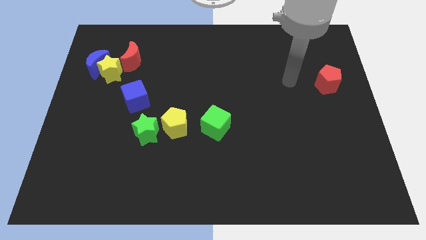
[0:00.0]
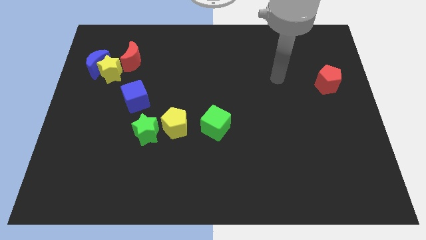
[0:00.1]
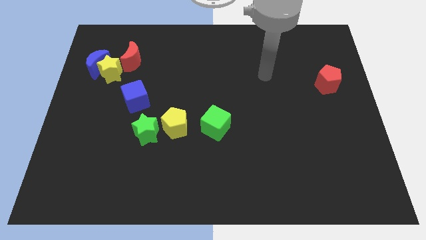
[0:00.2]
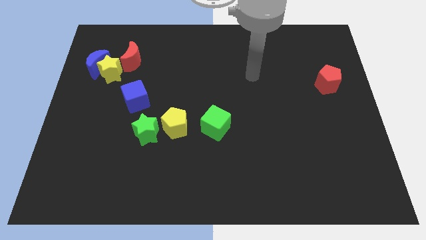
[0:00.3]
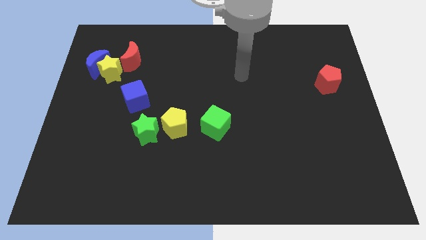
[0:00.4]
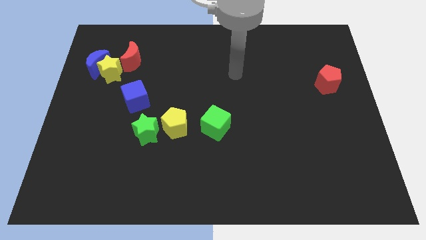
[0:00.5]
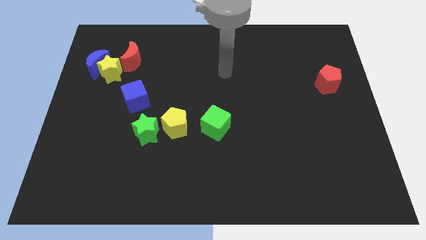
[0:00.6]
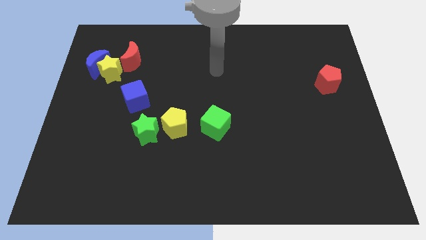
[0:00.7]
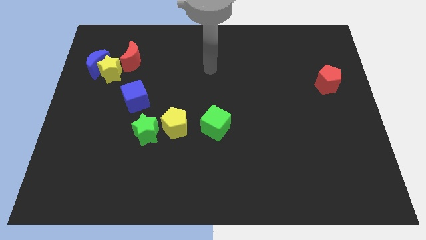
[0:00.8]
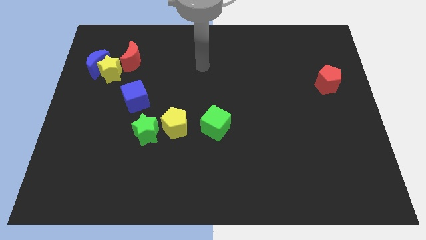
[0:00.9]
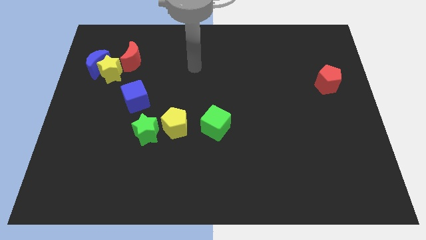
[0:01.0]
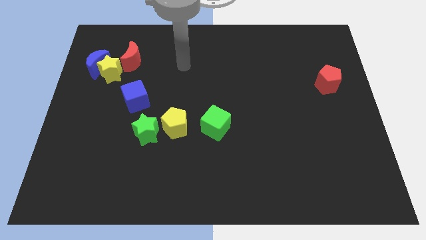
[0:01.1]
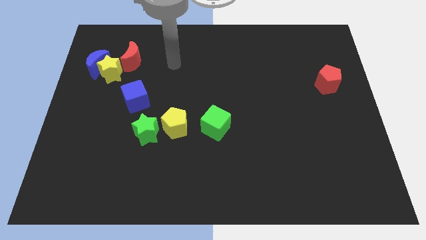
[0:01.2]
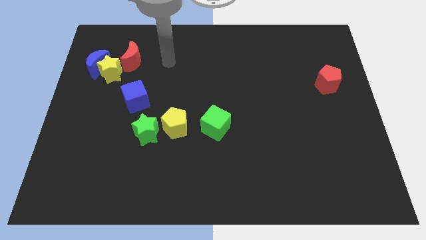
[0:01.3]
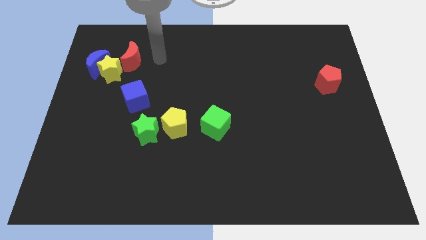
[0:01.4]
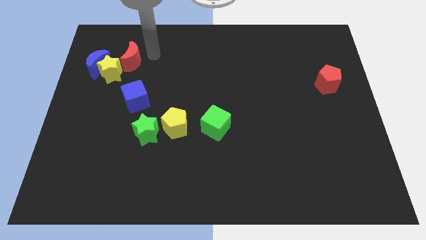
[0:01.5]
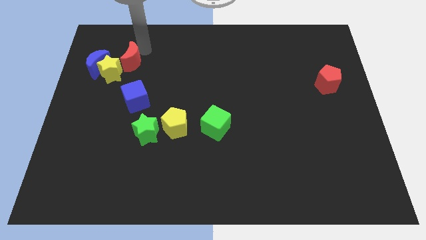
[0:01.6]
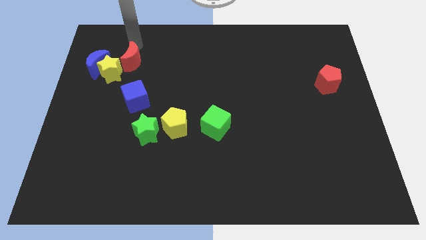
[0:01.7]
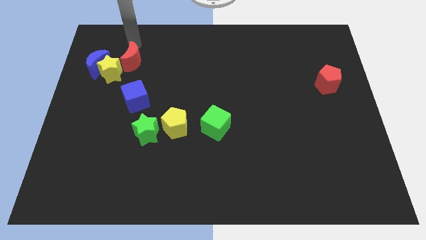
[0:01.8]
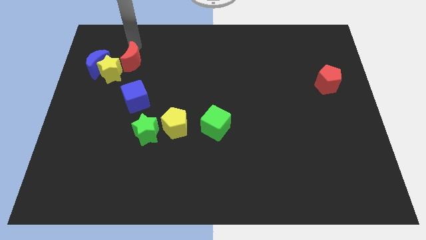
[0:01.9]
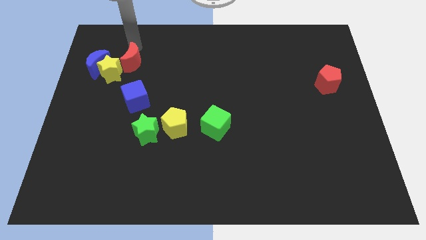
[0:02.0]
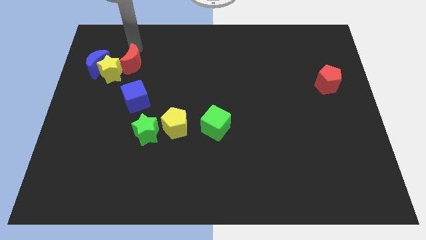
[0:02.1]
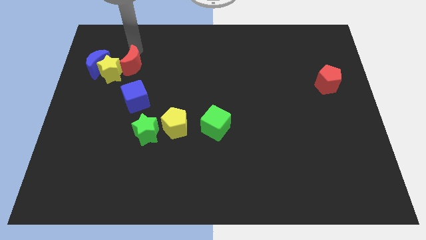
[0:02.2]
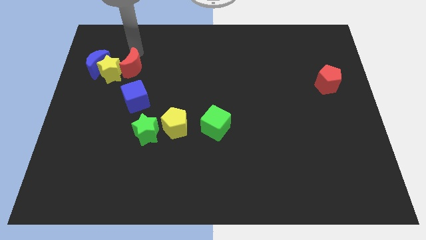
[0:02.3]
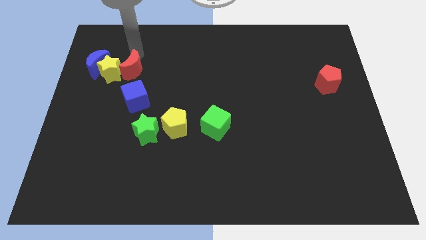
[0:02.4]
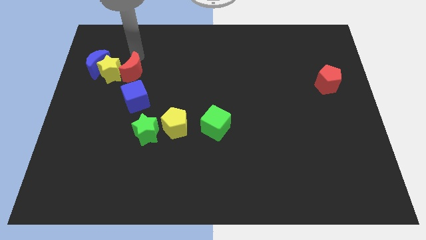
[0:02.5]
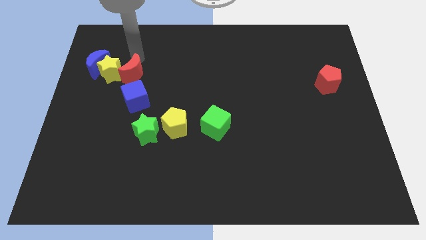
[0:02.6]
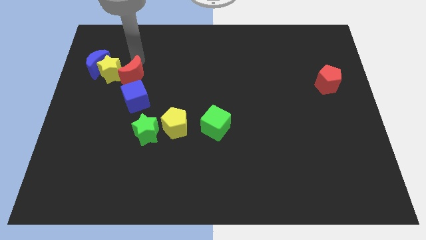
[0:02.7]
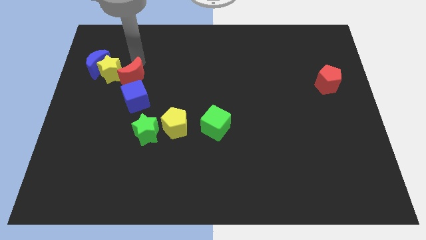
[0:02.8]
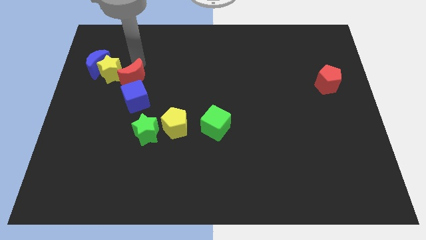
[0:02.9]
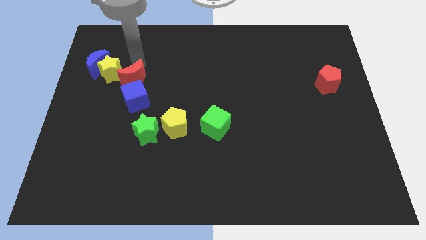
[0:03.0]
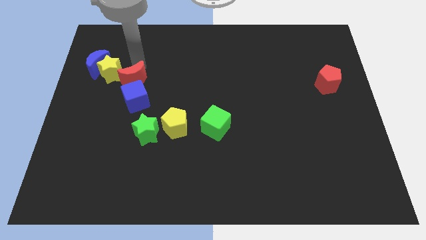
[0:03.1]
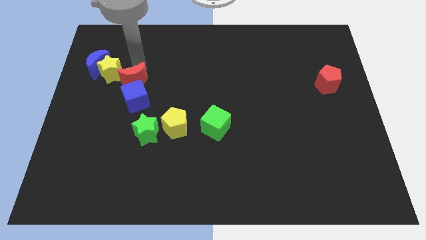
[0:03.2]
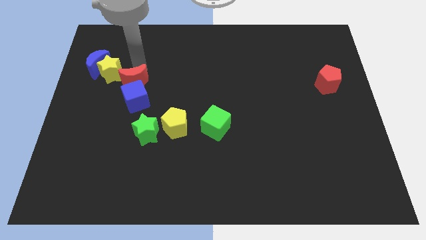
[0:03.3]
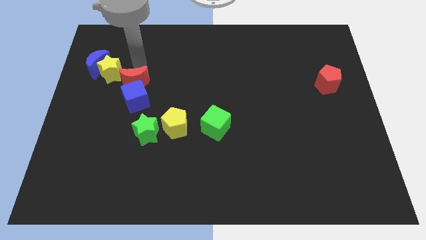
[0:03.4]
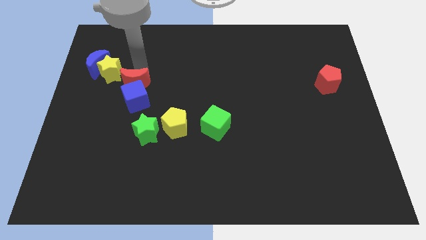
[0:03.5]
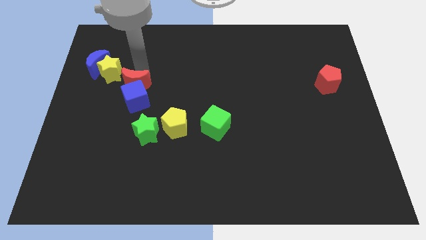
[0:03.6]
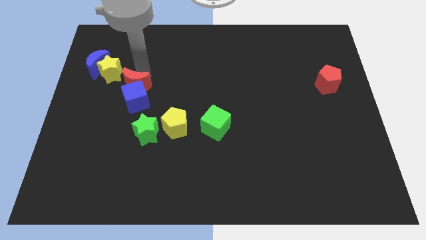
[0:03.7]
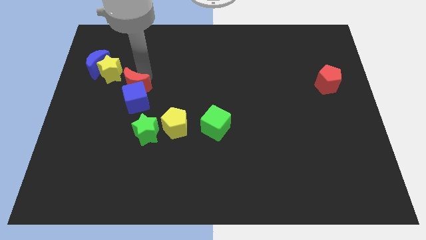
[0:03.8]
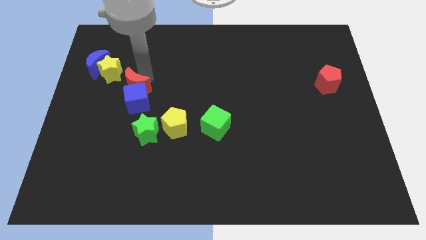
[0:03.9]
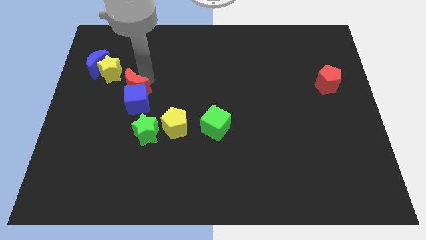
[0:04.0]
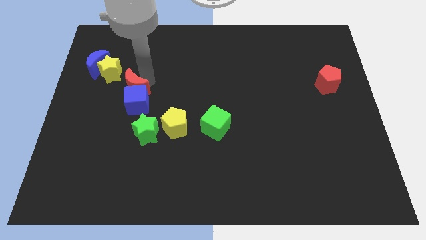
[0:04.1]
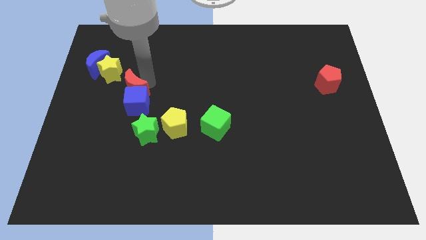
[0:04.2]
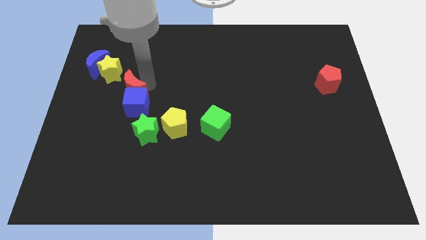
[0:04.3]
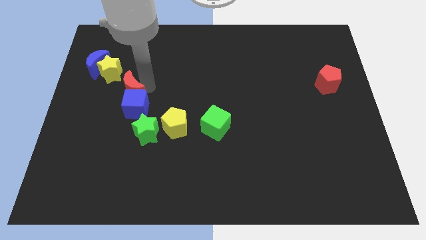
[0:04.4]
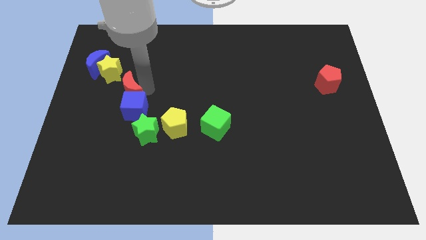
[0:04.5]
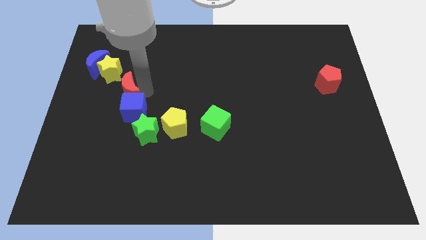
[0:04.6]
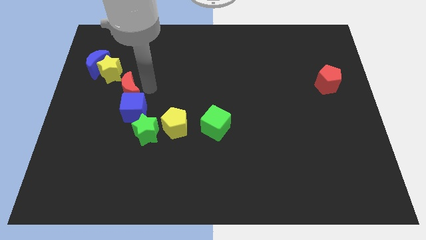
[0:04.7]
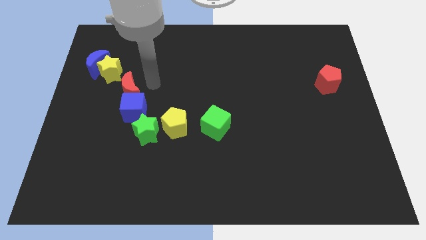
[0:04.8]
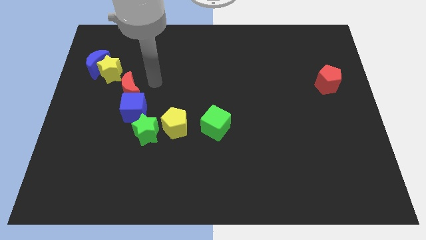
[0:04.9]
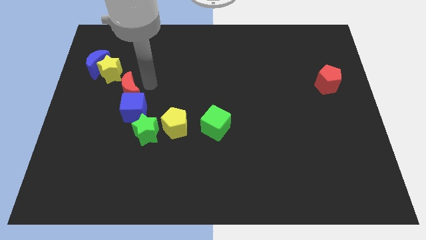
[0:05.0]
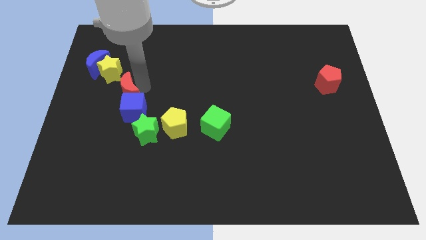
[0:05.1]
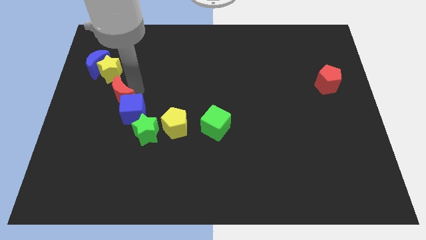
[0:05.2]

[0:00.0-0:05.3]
put the red moon below the yellow star
